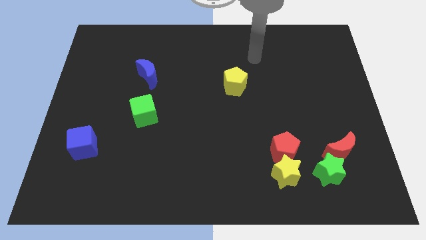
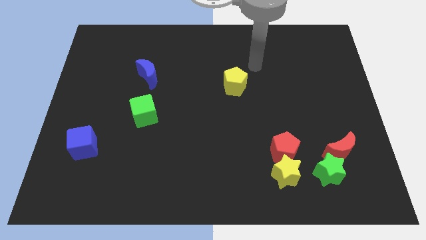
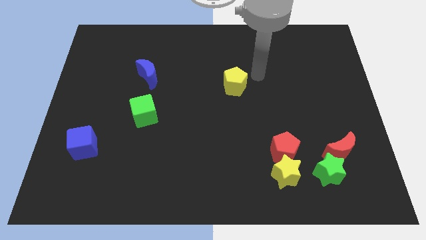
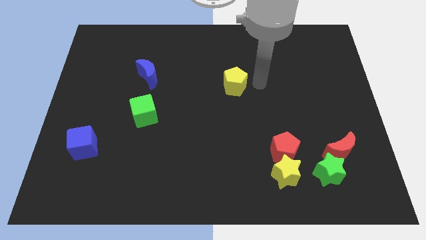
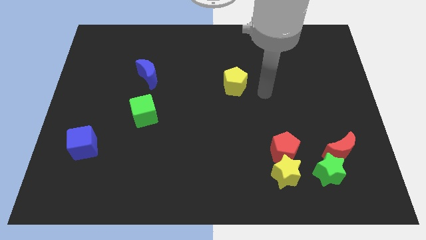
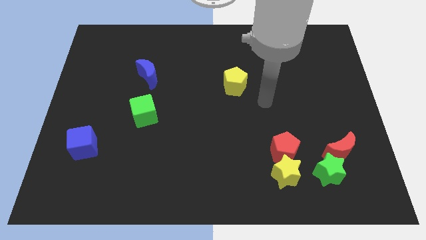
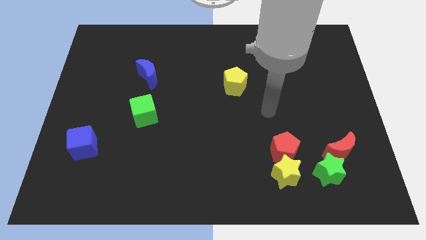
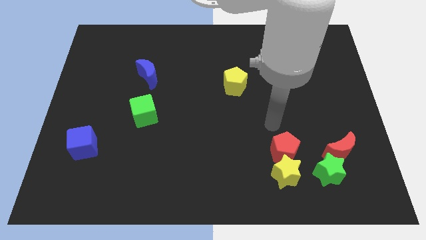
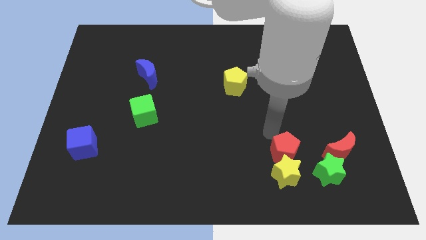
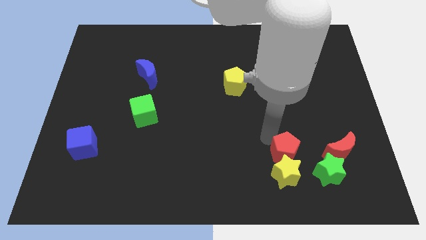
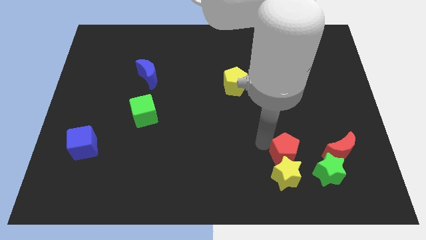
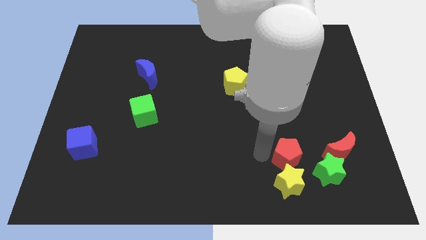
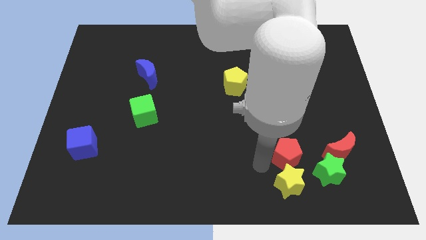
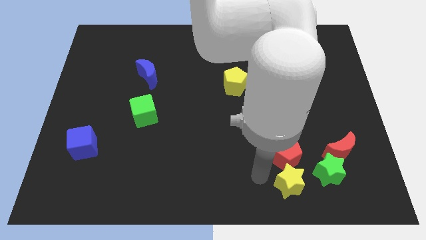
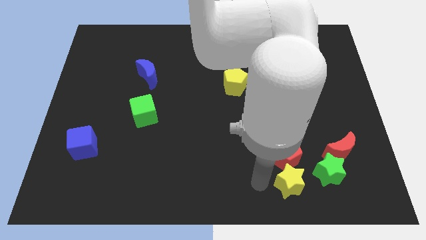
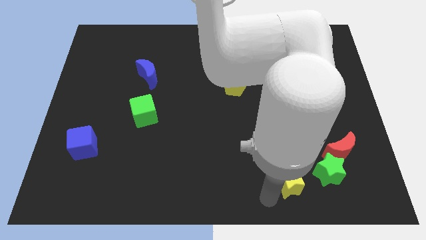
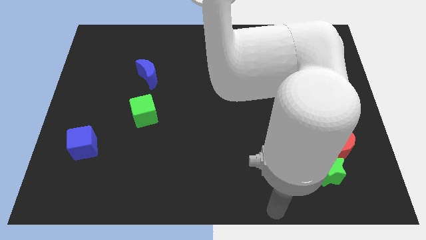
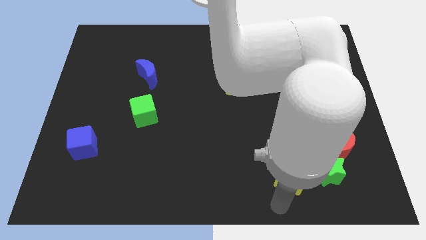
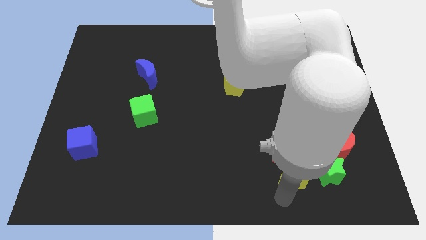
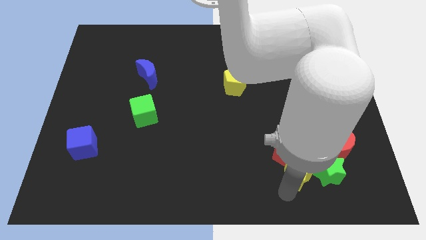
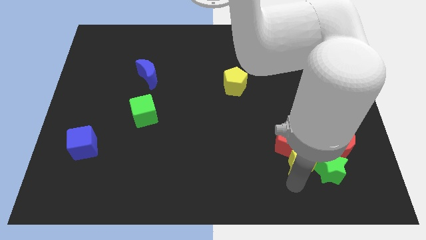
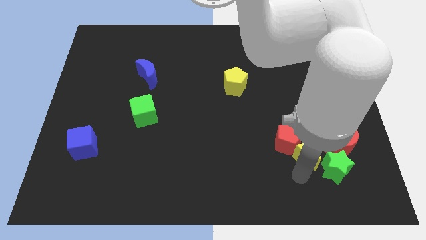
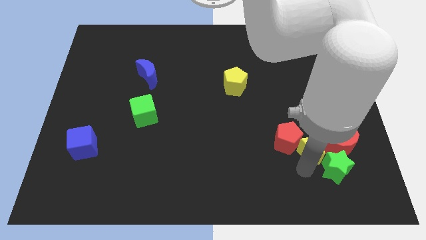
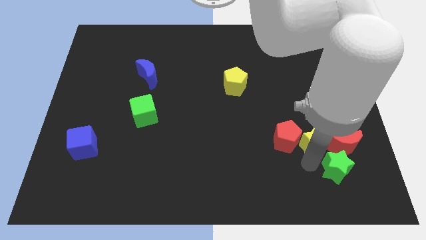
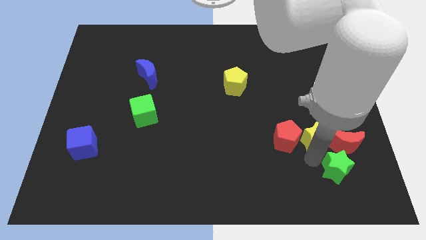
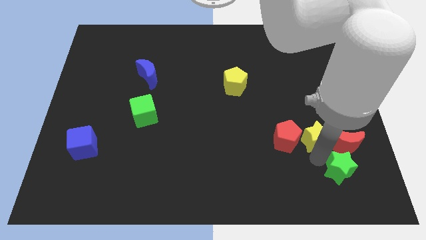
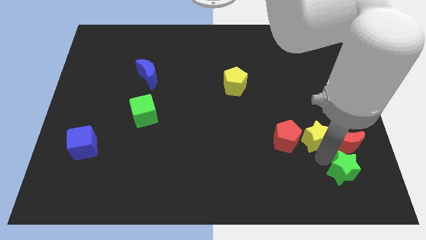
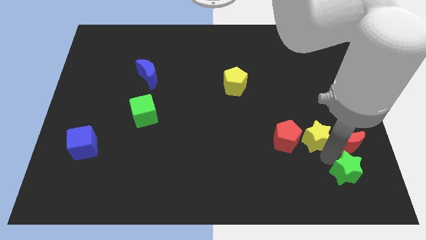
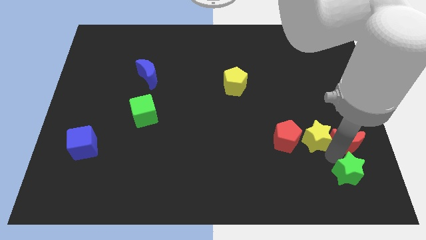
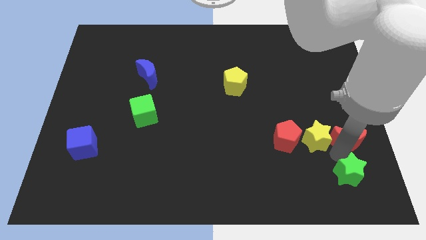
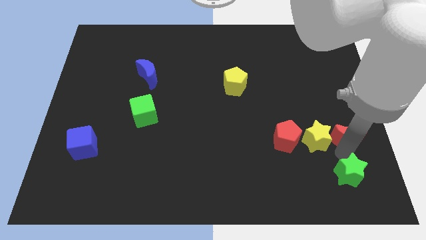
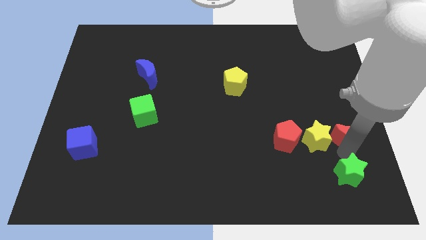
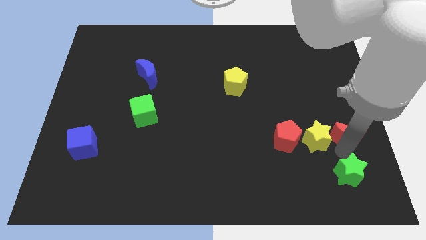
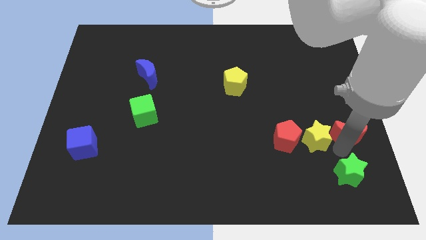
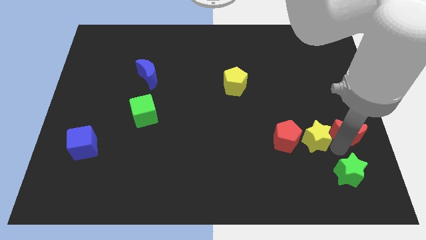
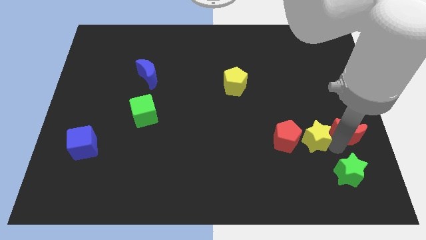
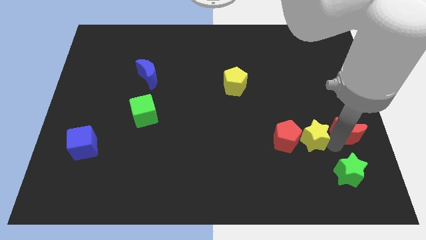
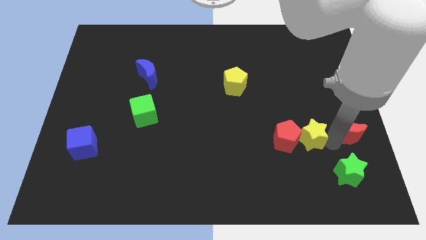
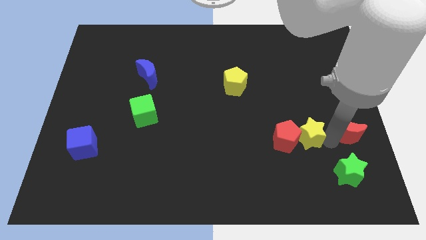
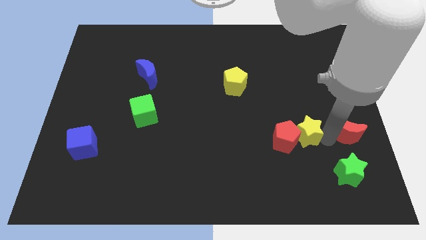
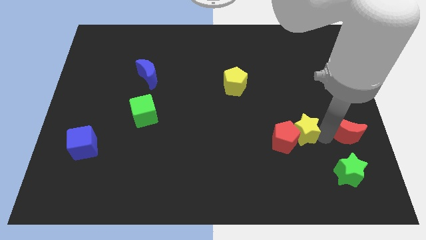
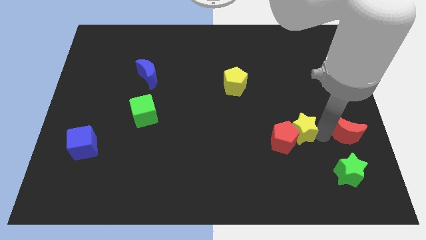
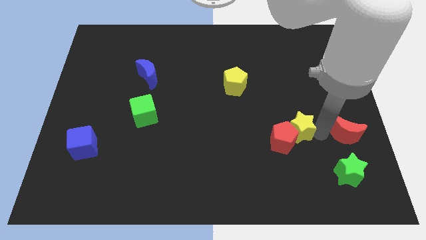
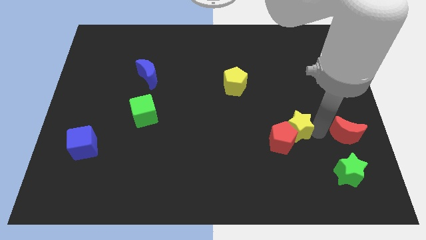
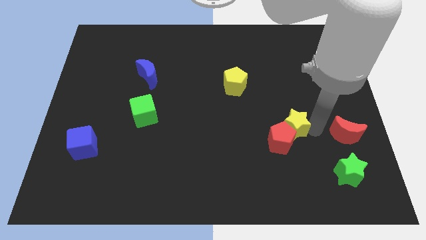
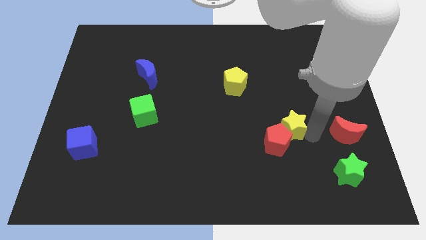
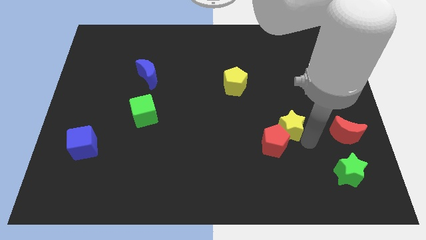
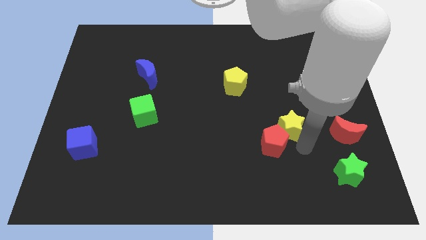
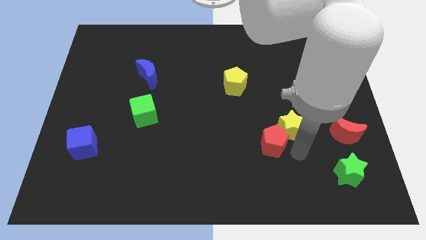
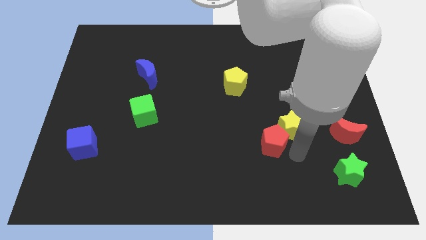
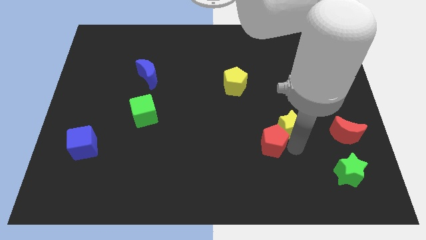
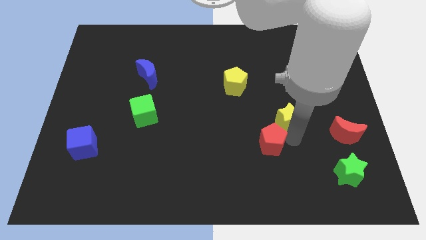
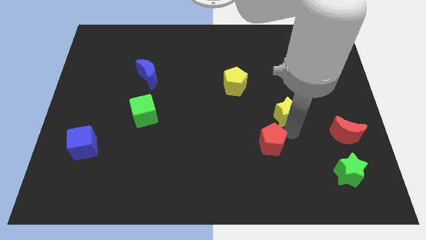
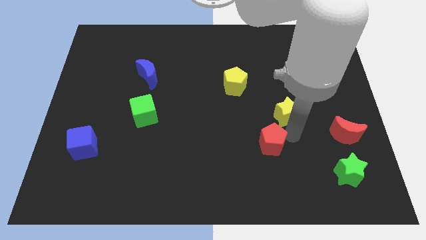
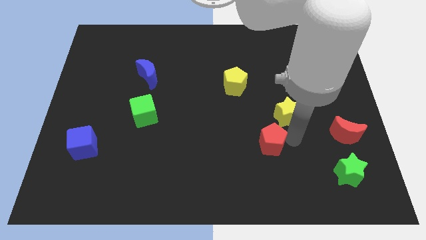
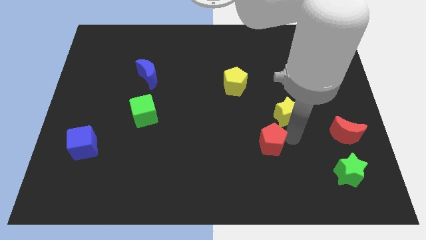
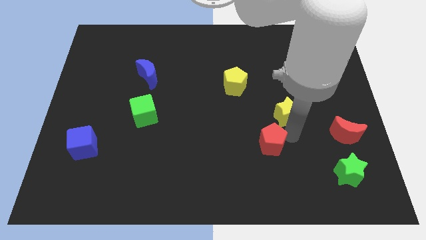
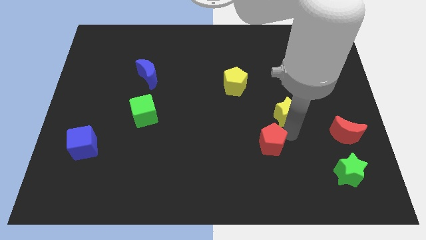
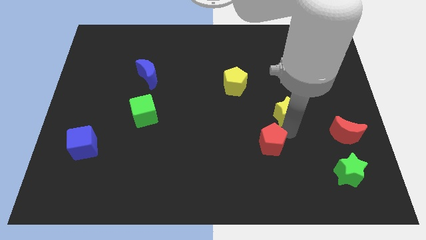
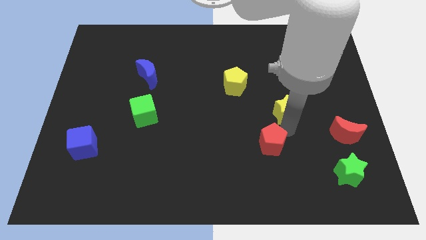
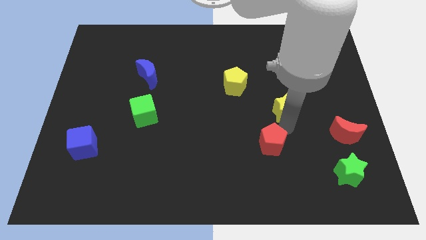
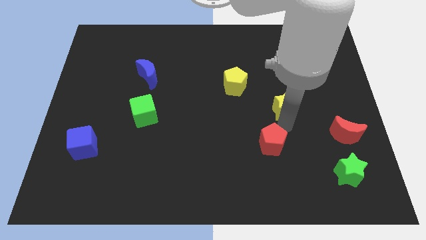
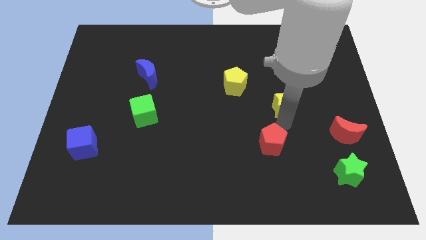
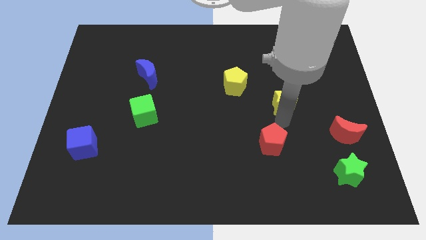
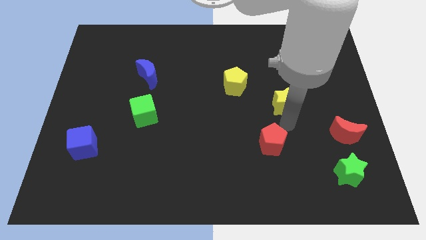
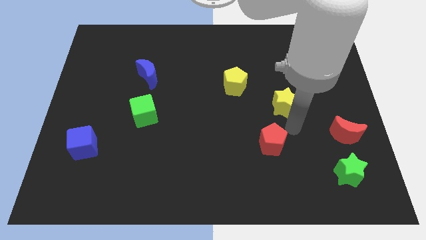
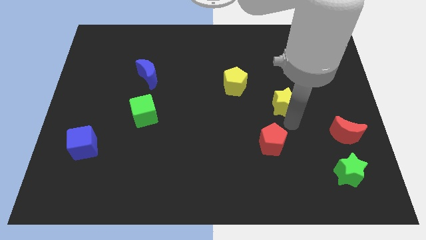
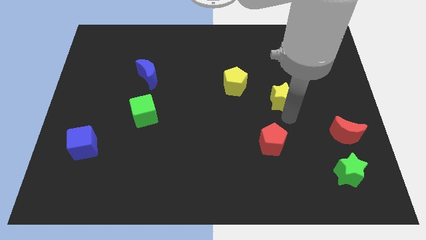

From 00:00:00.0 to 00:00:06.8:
slide the yellow star up

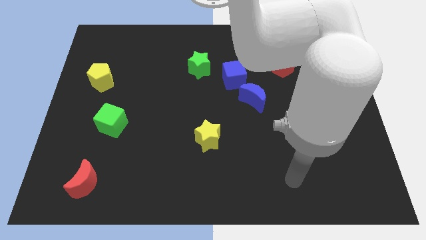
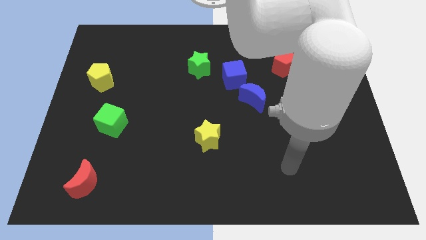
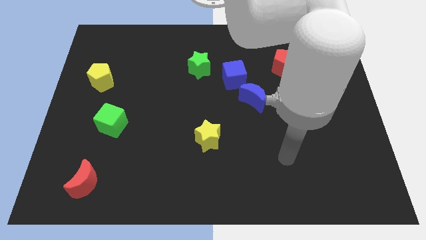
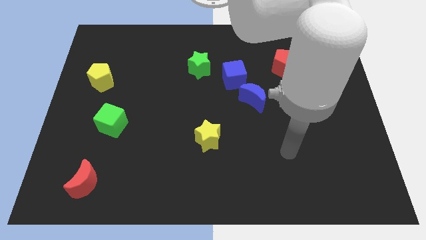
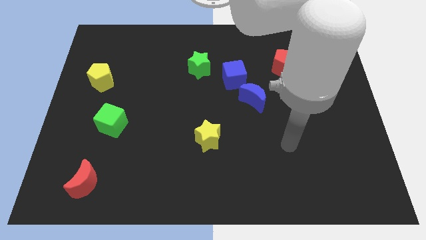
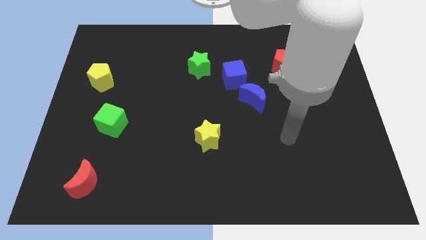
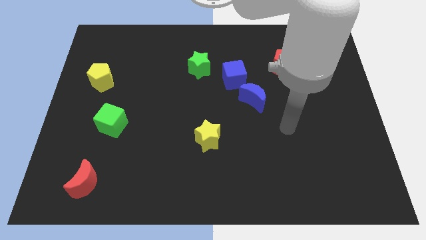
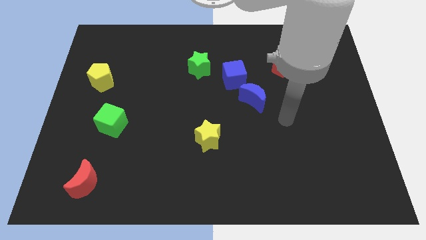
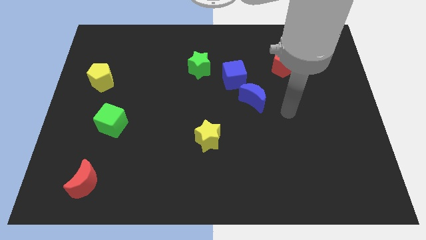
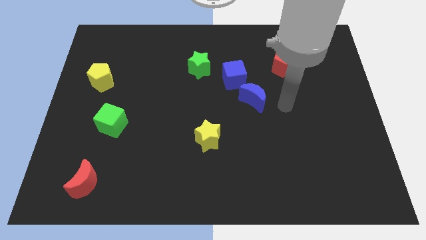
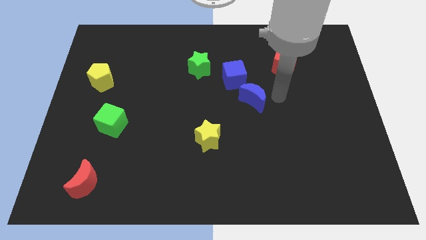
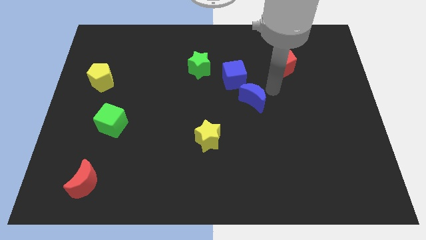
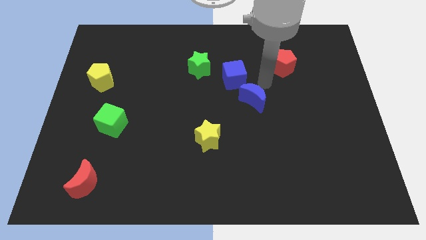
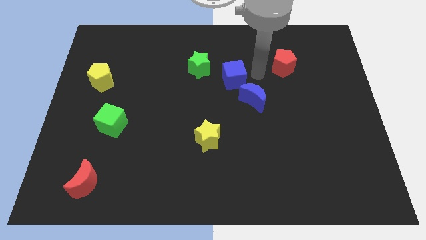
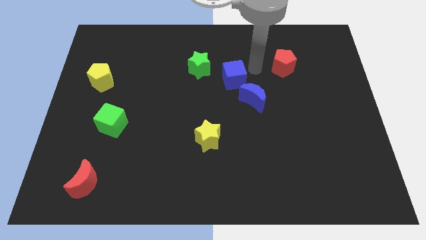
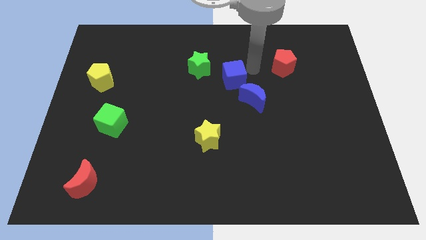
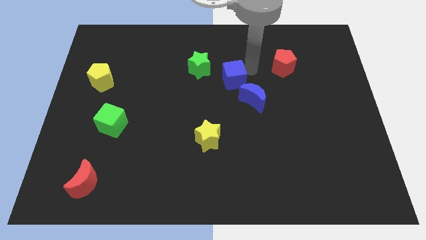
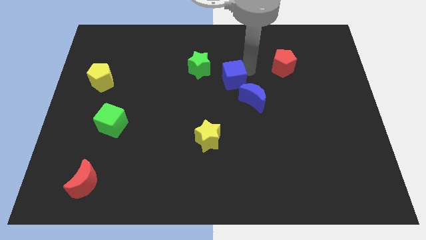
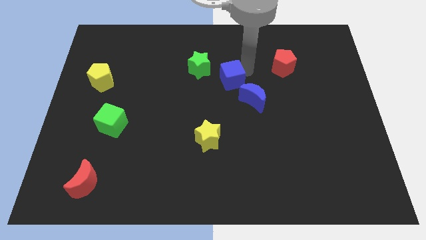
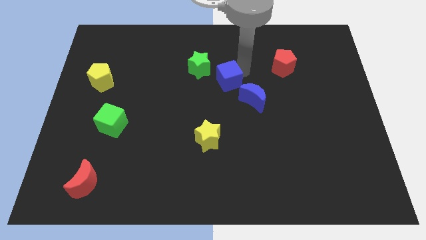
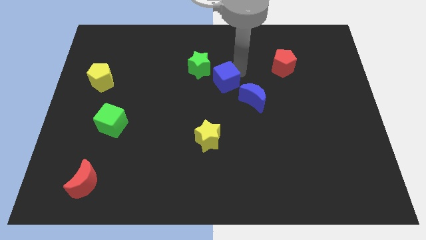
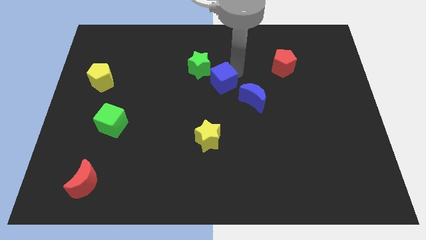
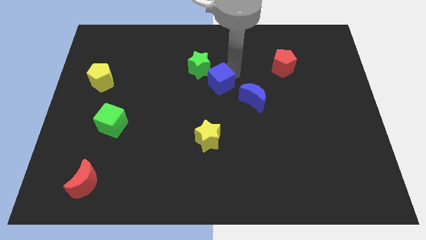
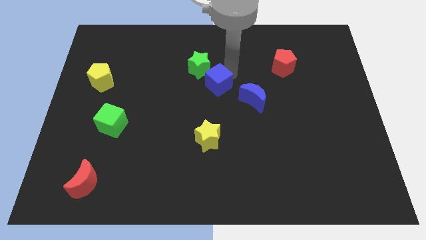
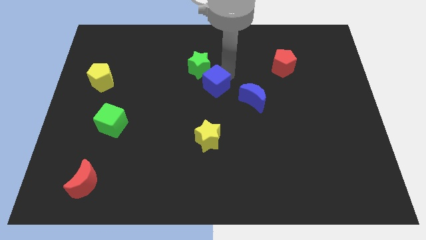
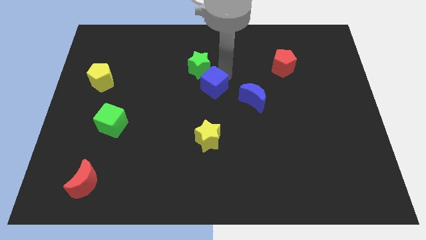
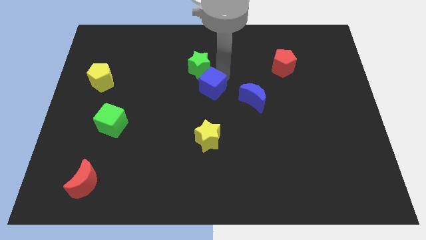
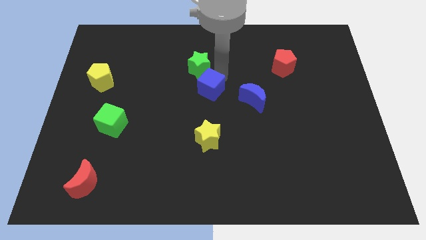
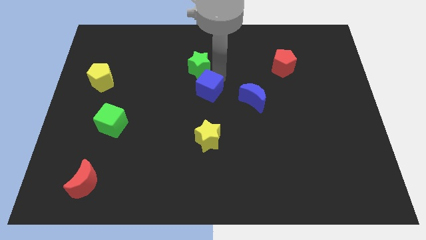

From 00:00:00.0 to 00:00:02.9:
move the blue cube downwards and left somewhat
